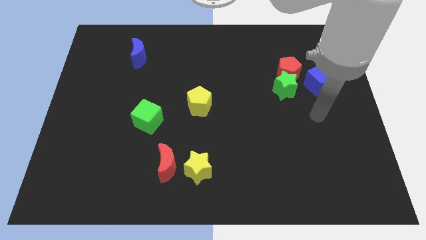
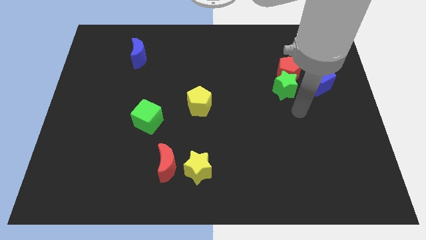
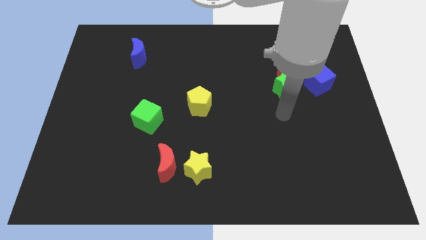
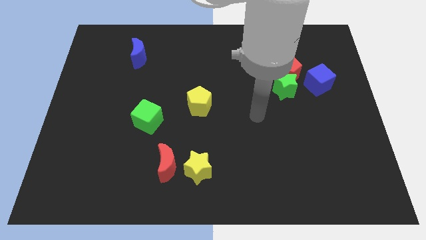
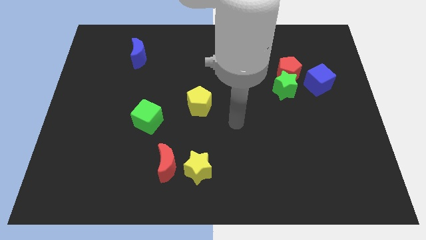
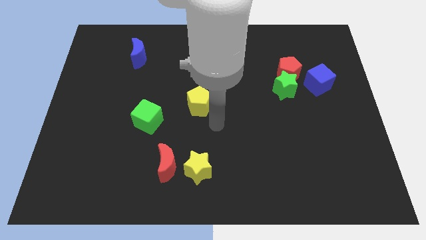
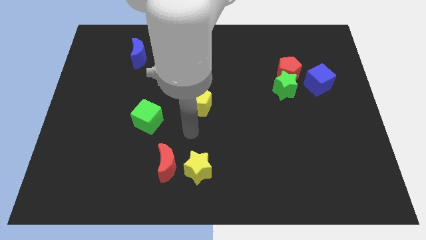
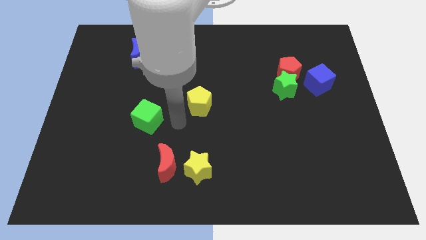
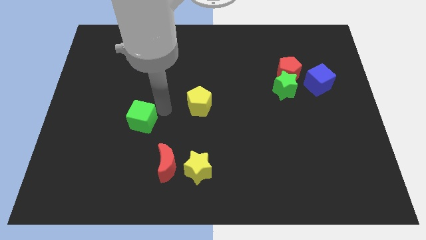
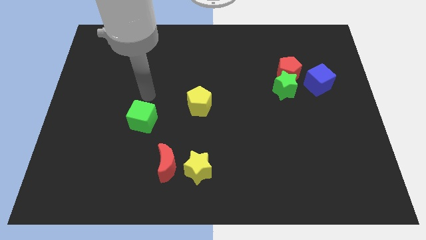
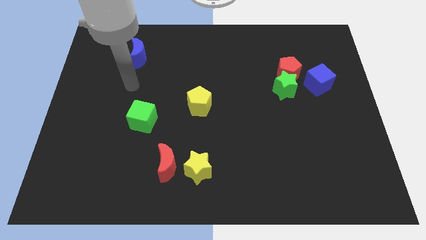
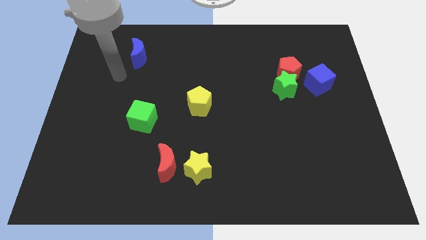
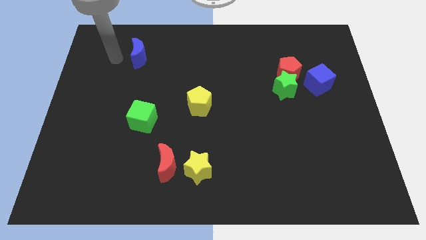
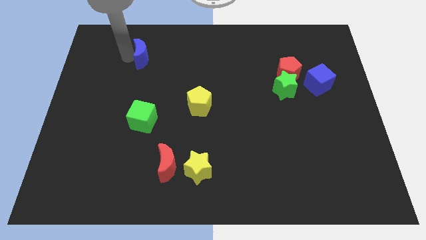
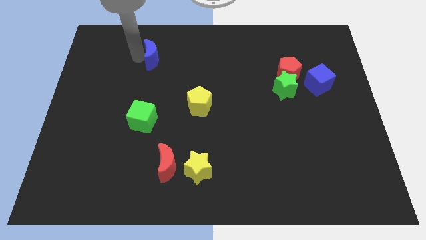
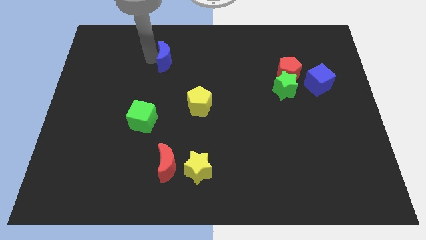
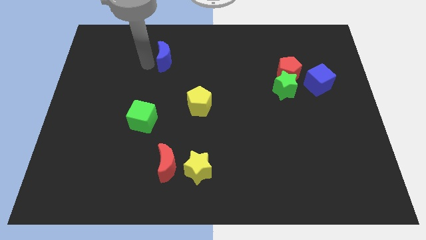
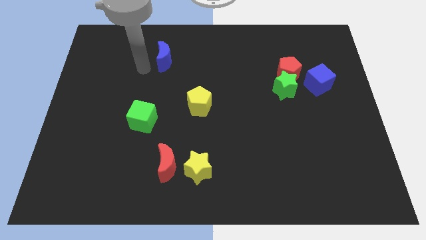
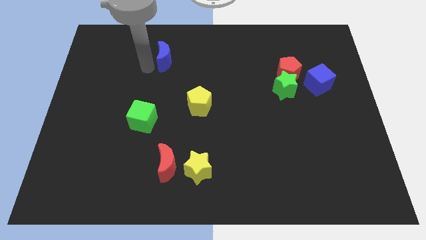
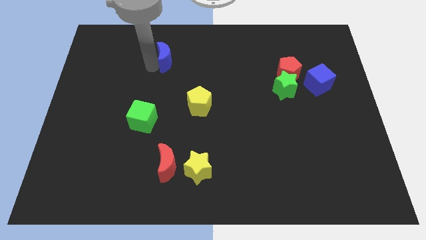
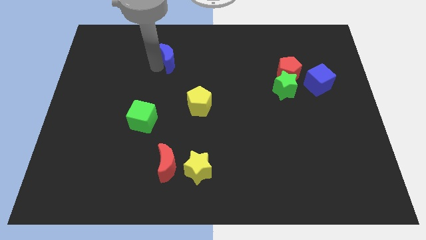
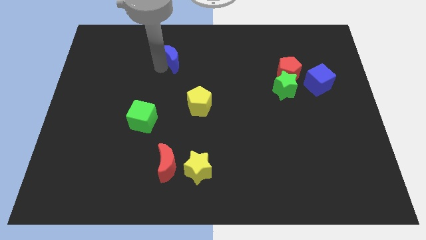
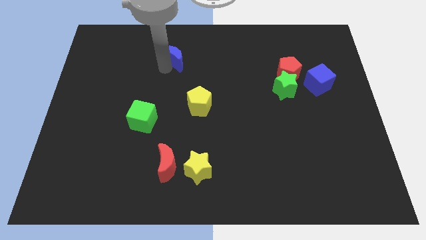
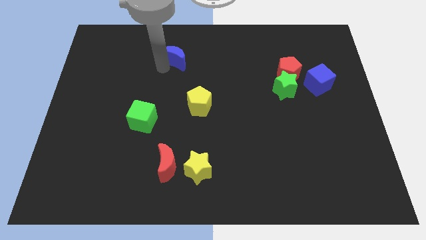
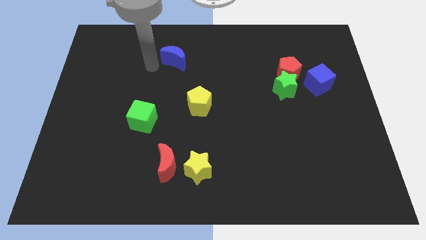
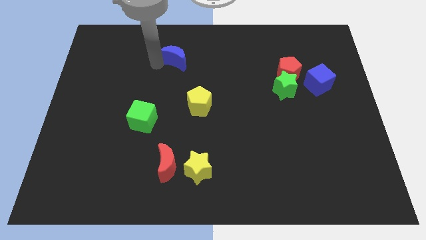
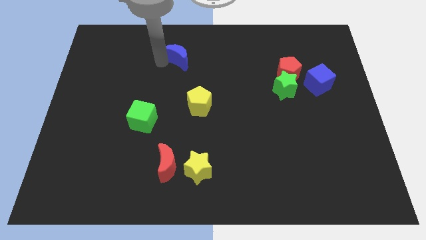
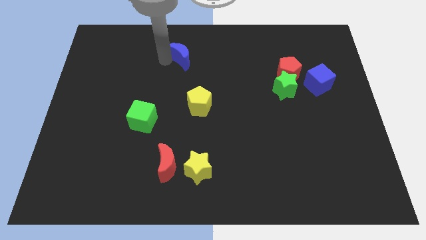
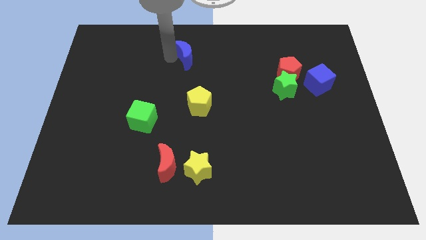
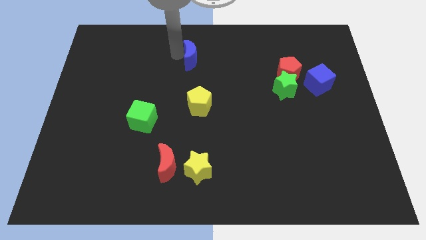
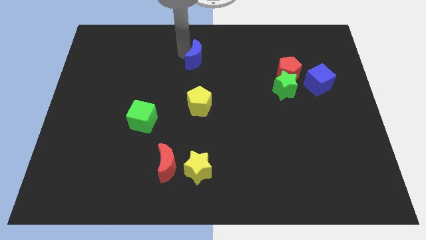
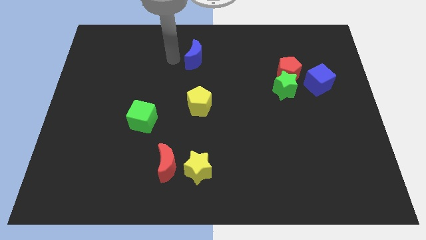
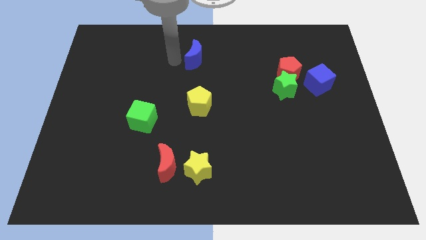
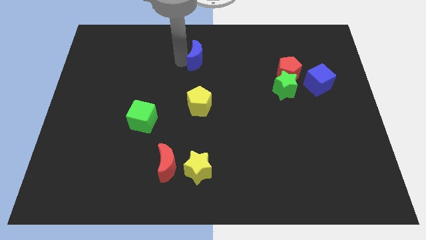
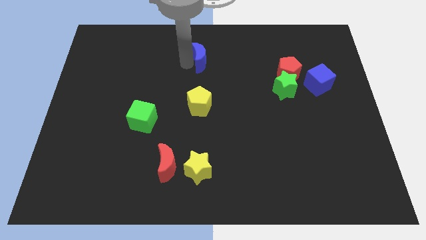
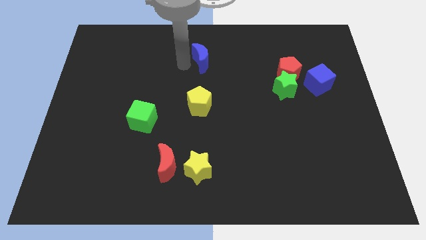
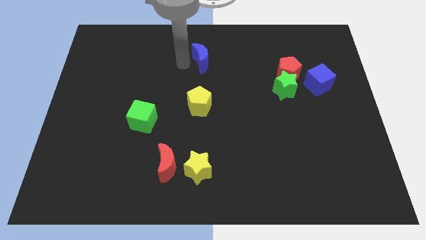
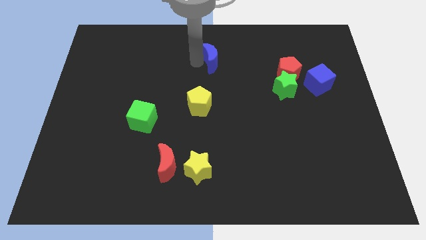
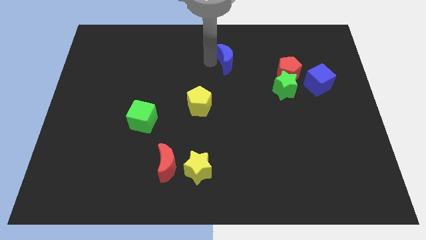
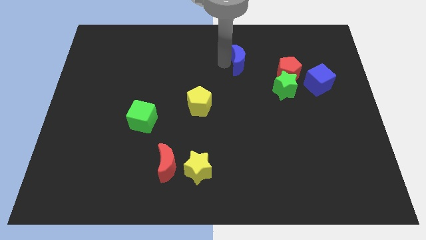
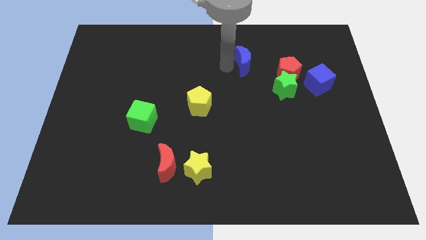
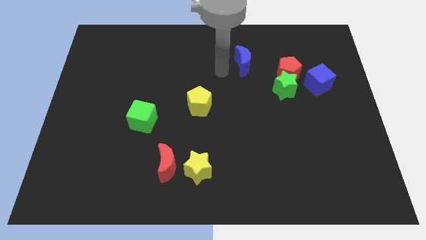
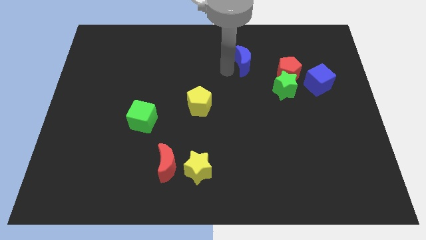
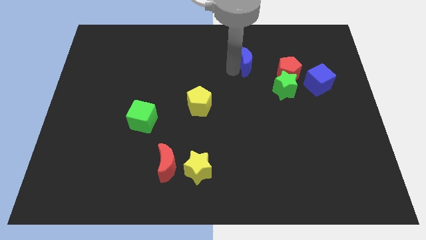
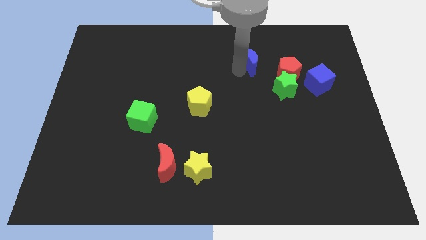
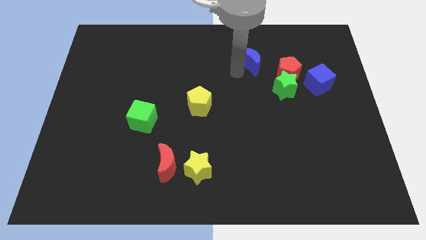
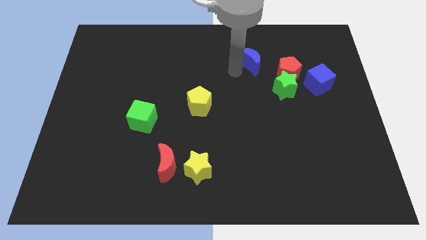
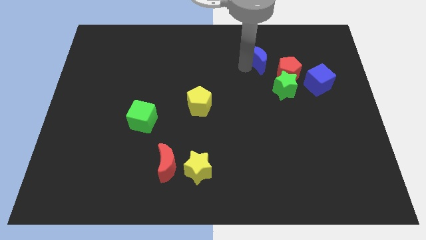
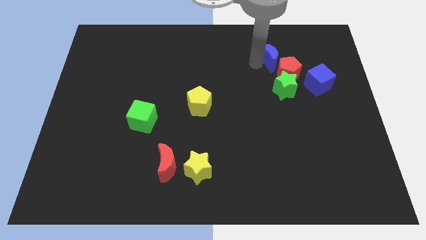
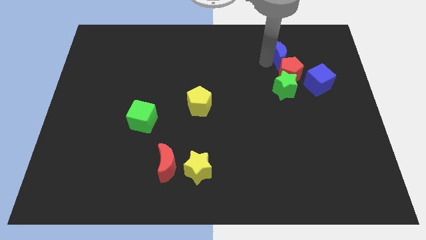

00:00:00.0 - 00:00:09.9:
move the blue moon diagonally up and to the left of the blue cube

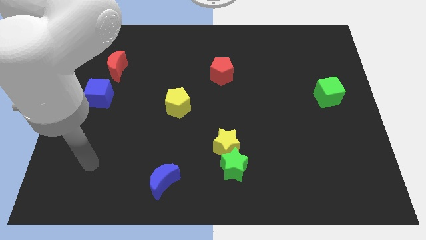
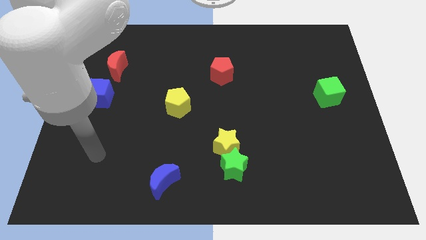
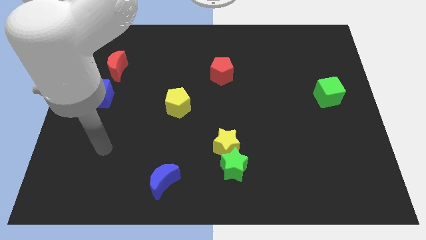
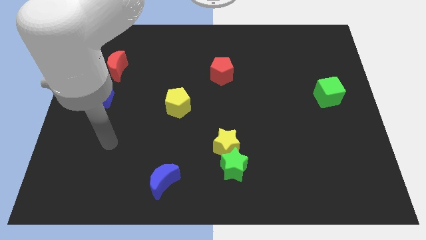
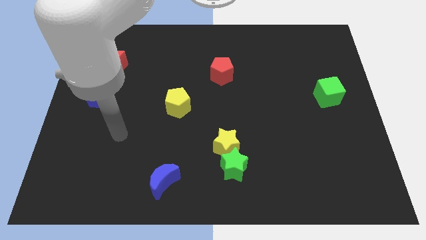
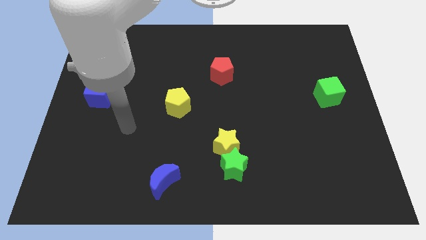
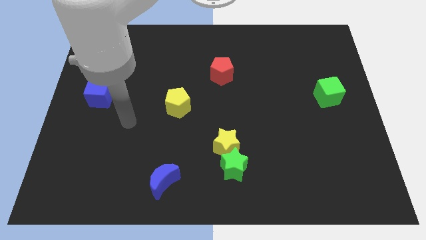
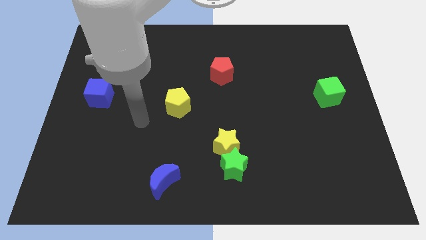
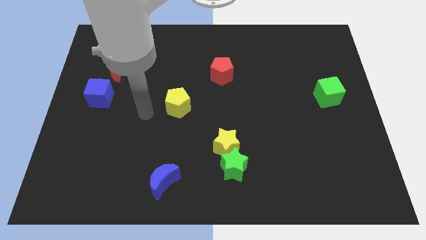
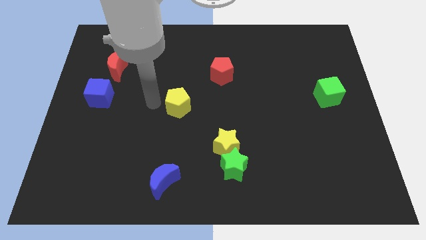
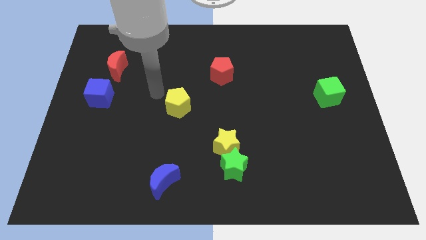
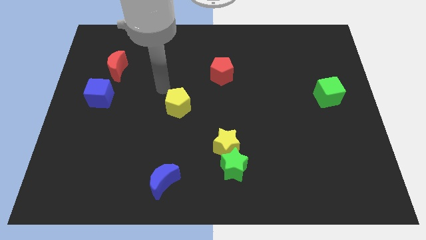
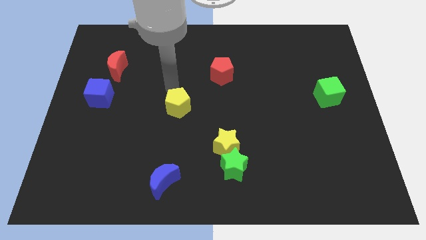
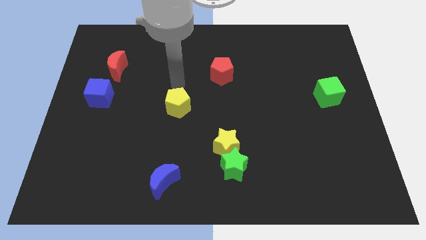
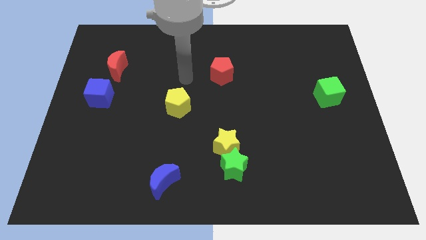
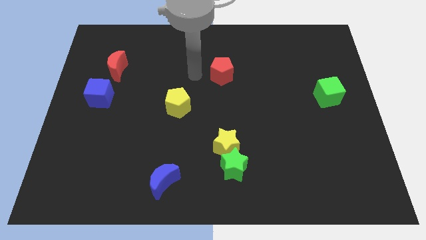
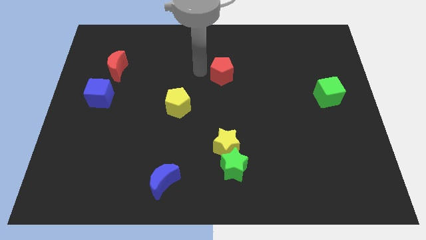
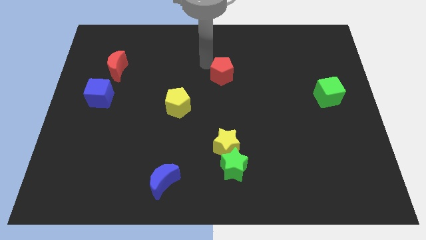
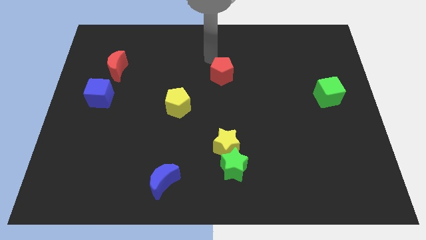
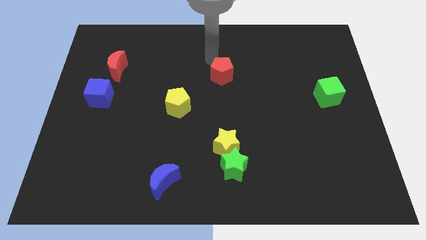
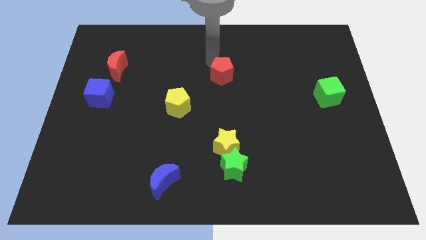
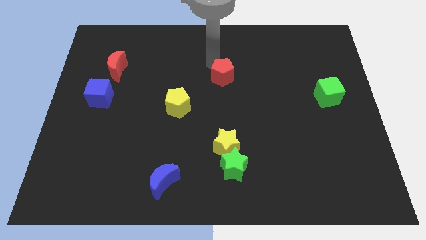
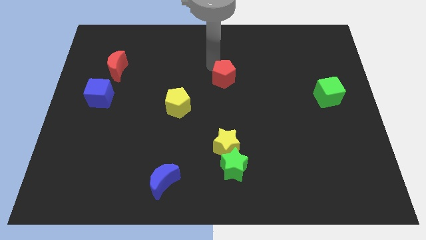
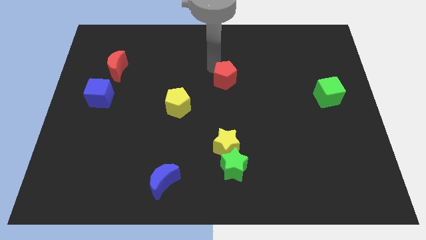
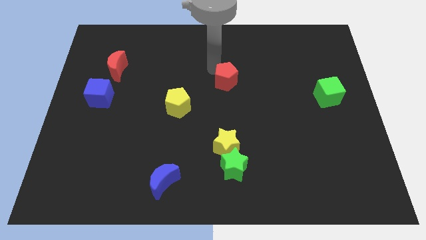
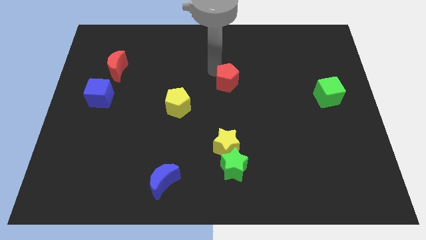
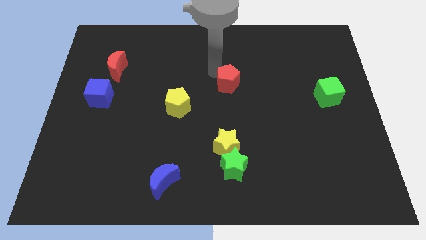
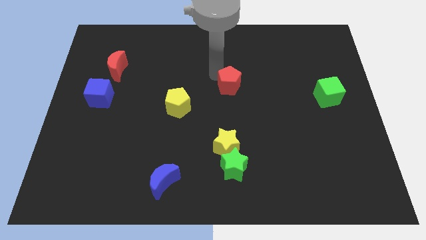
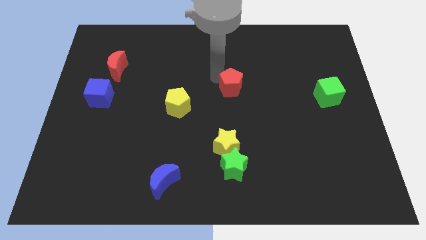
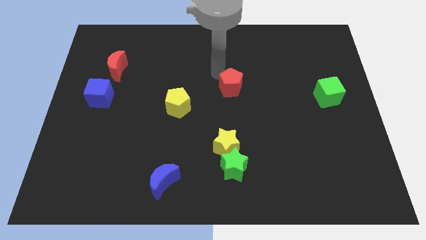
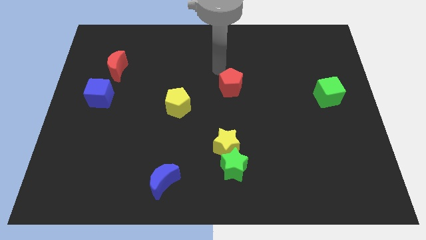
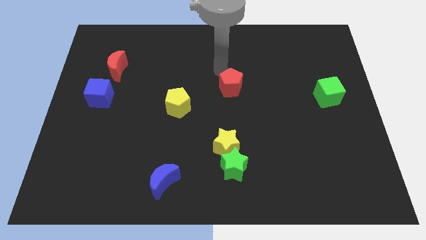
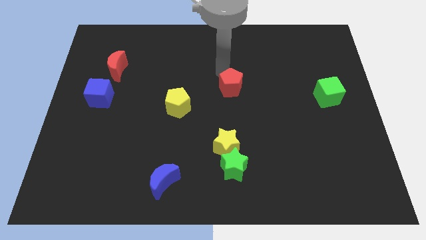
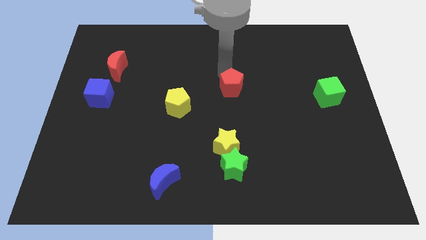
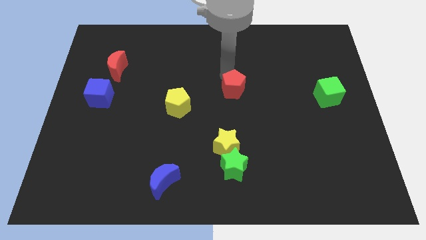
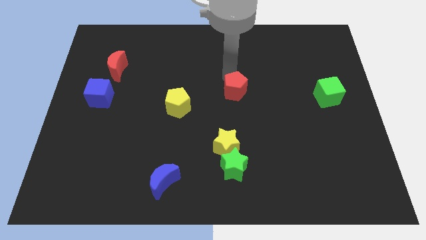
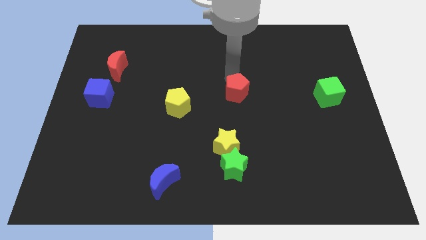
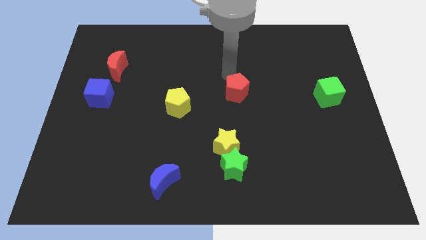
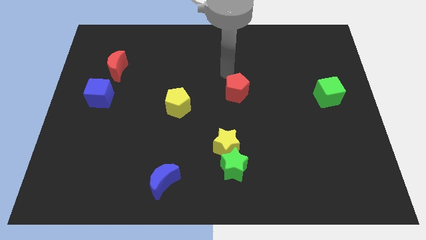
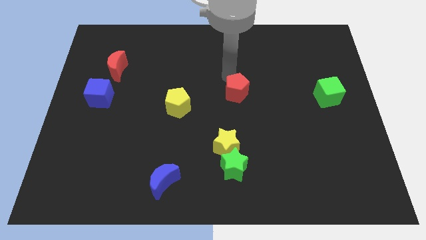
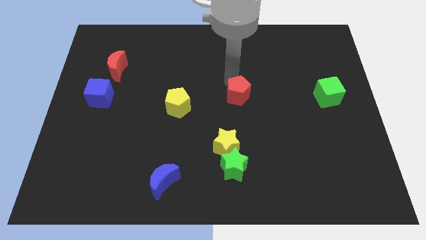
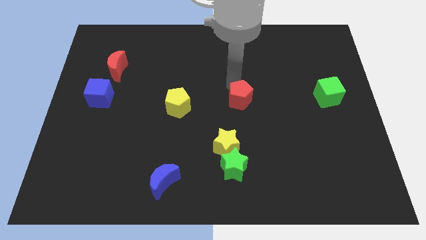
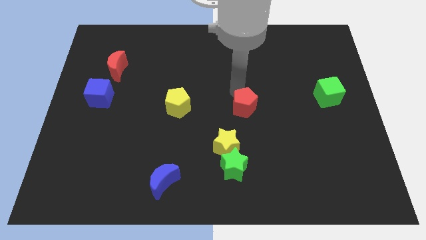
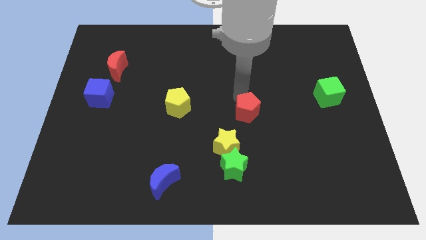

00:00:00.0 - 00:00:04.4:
slide the red pentagon diagonally up and to the right of the yellow star
